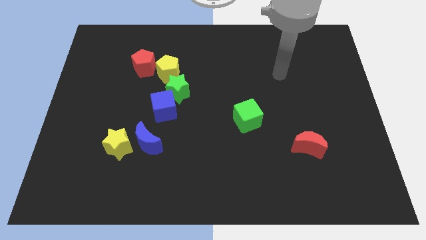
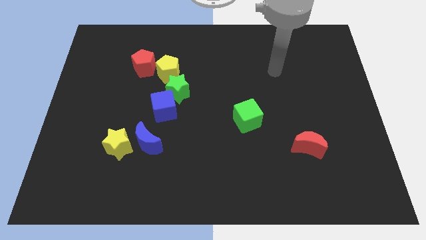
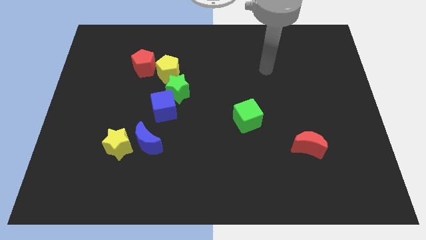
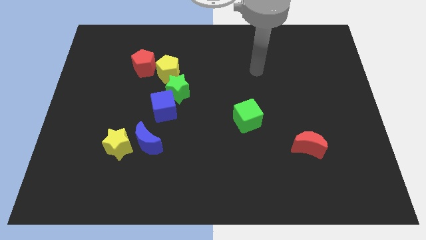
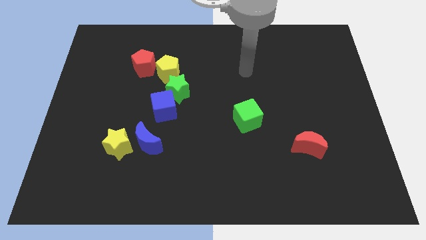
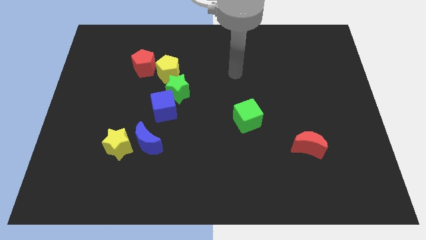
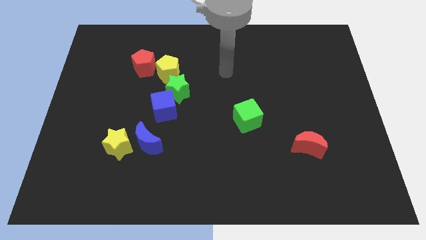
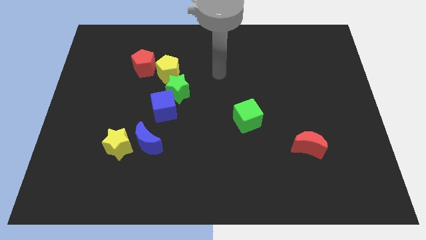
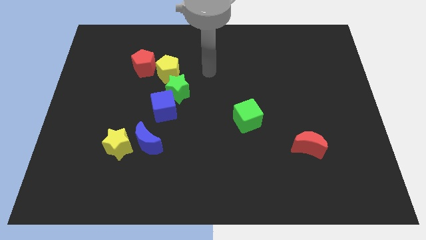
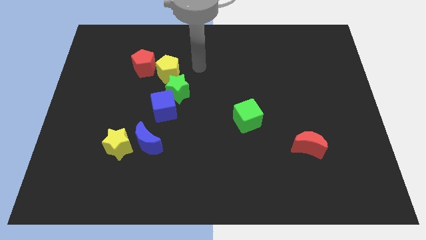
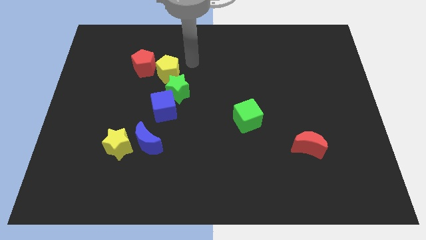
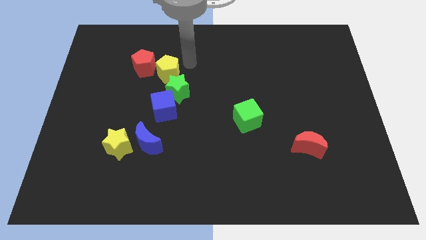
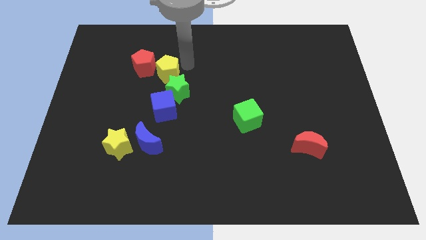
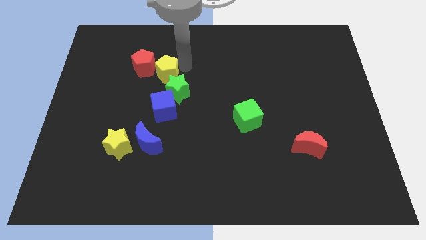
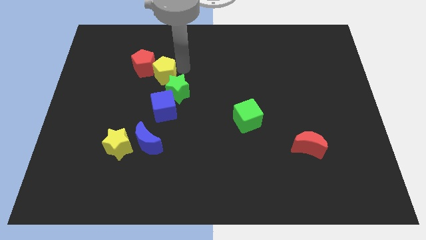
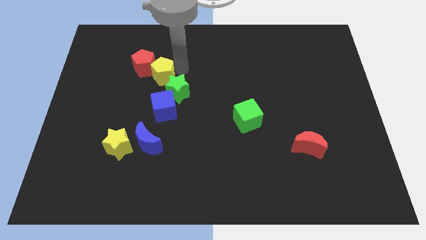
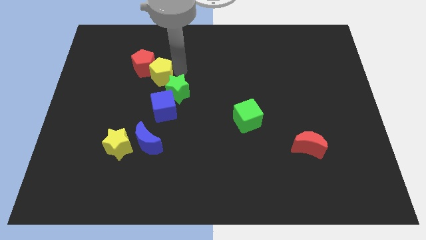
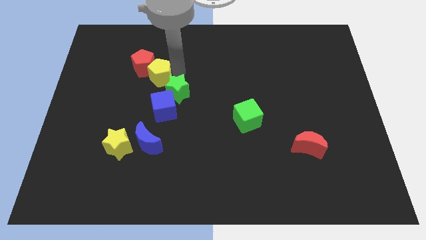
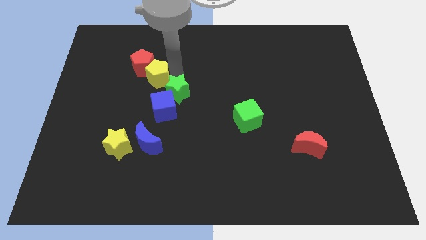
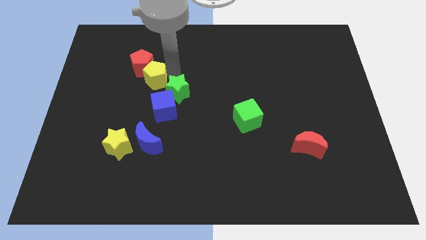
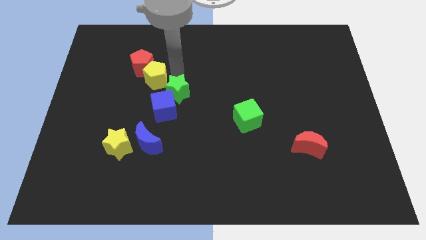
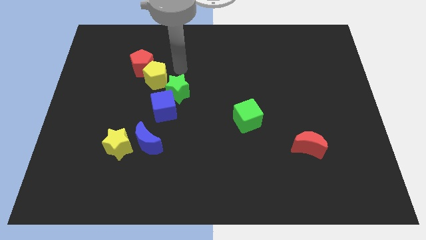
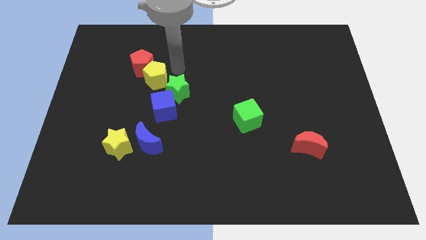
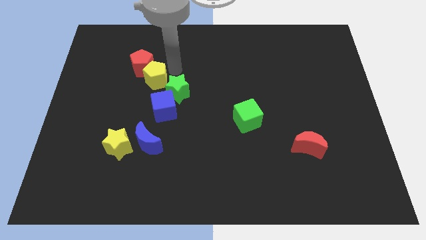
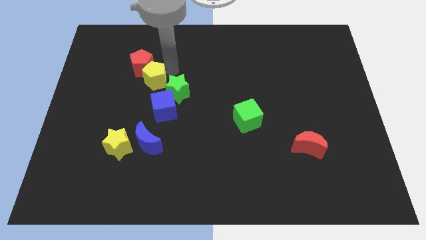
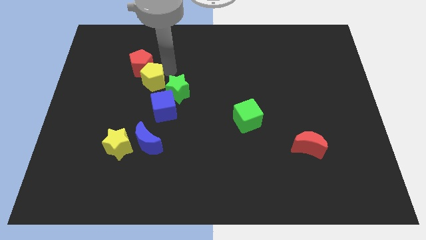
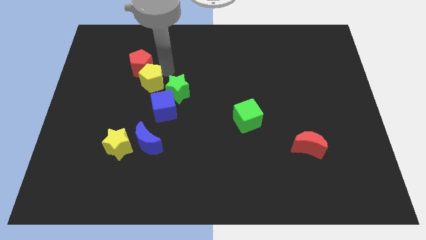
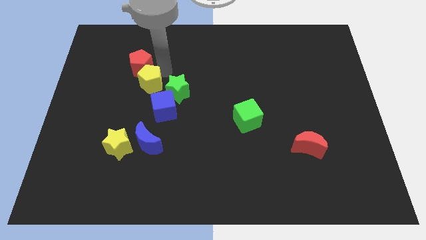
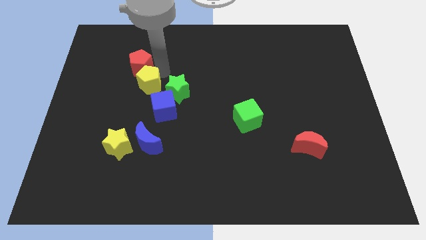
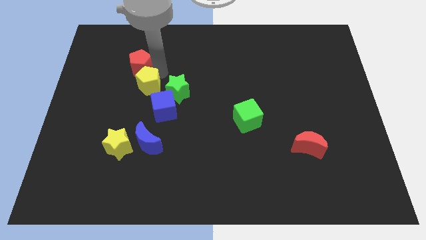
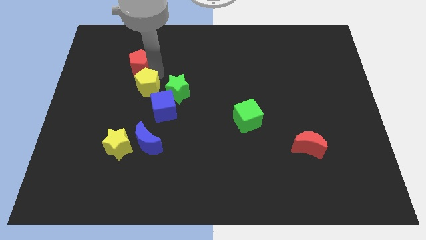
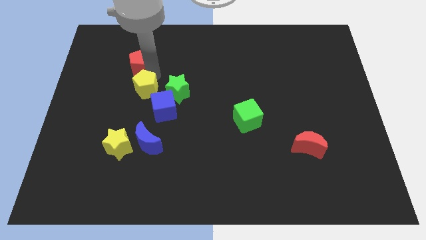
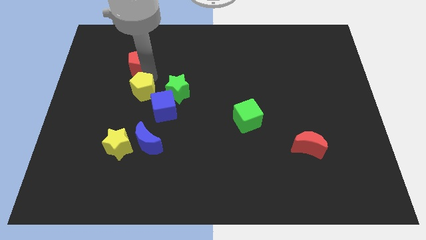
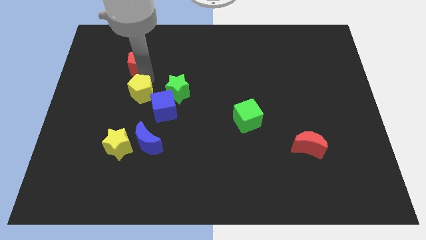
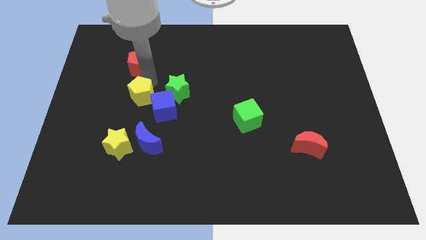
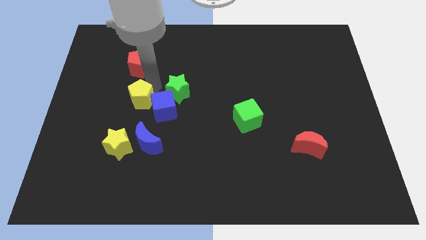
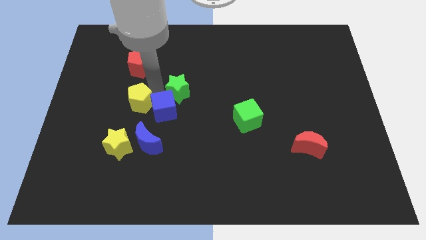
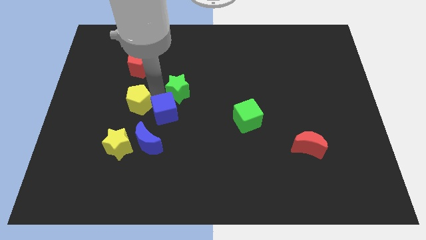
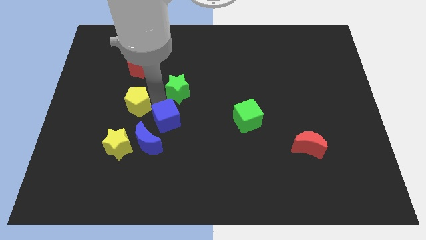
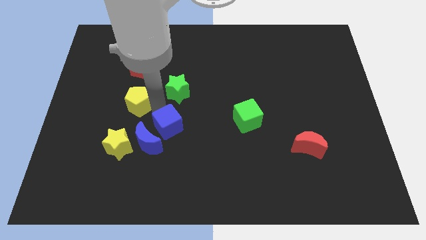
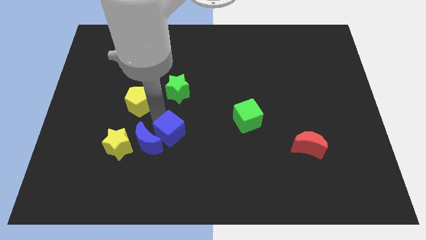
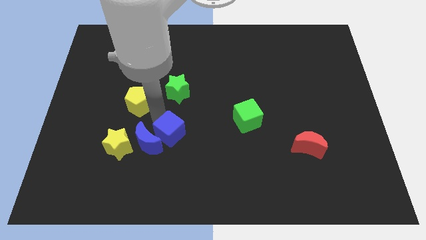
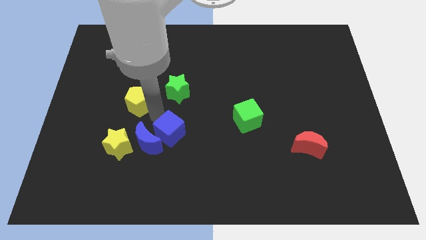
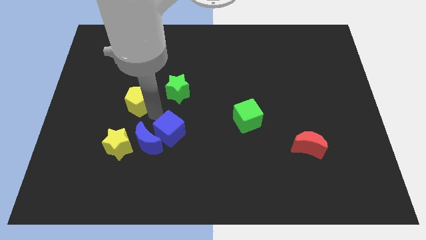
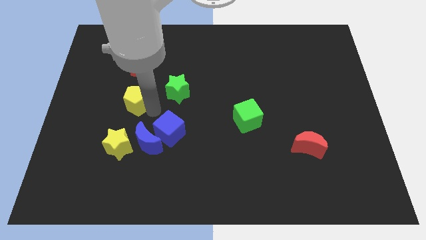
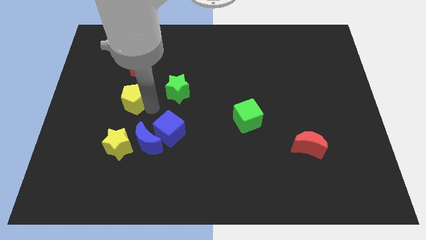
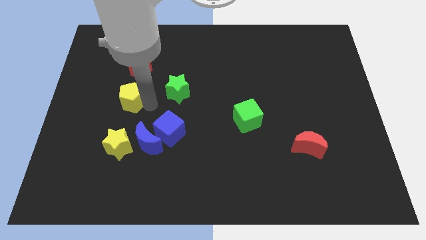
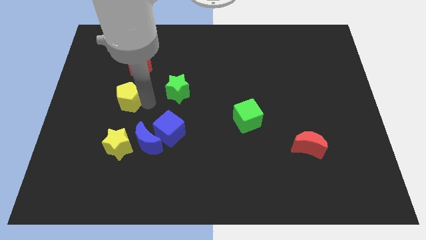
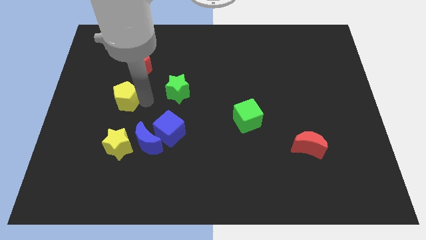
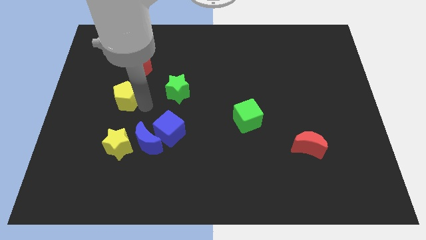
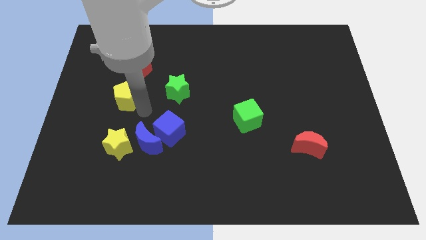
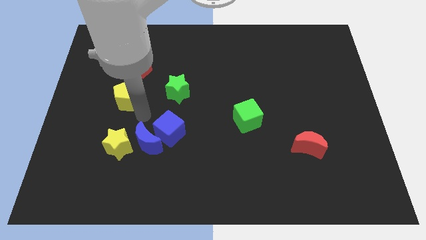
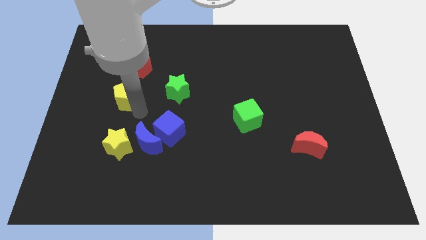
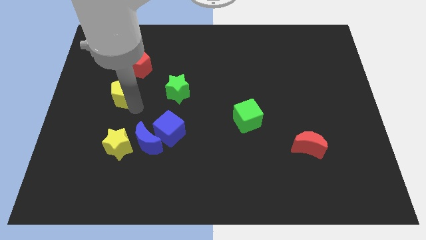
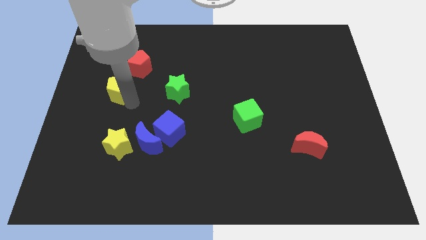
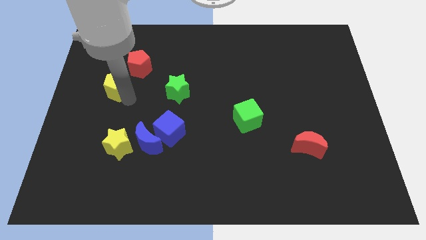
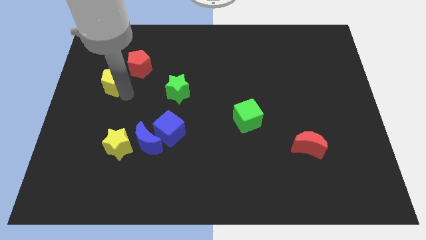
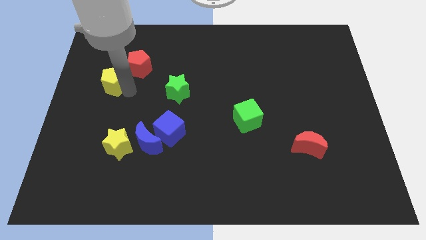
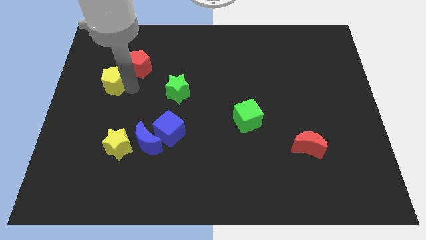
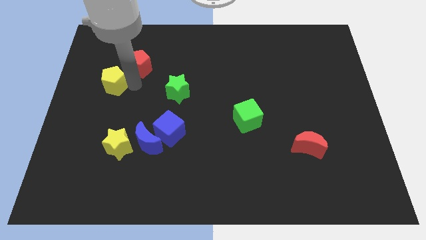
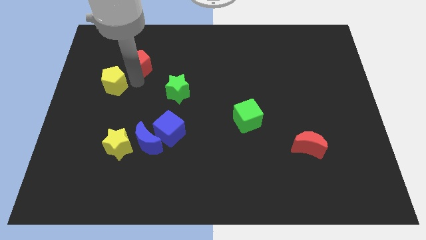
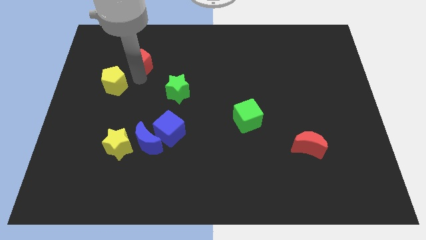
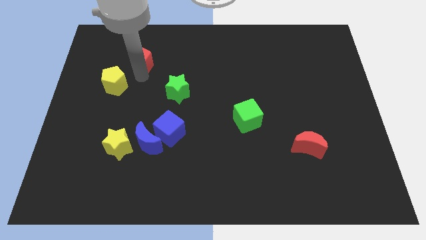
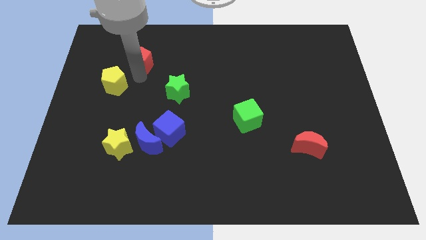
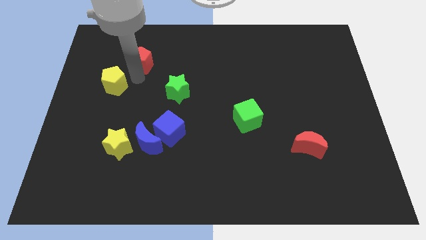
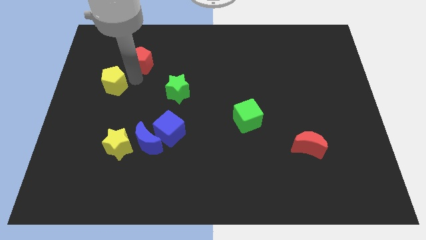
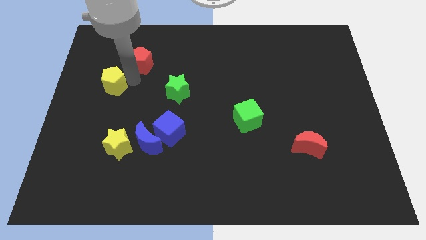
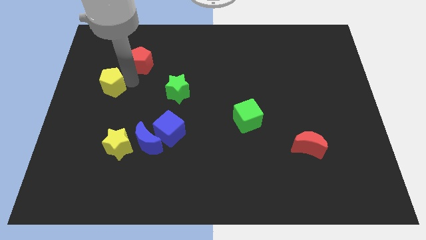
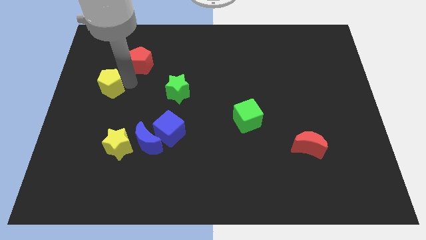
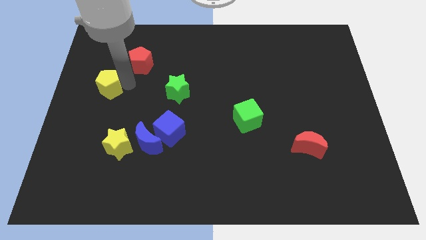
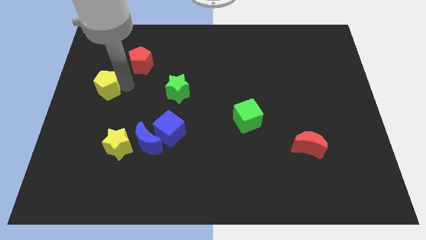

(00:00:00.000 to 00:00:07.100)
slide the yellow pentagon to the left side of the board
